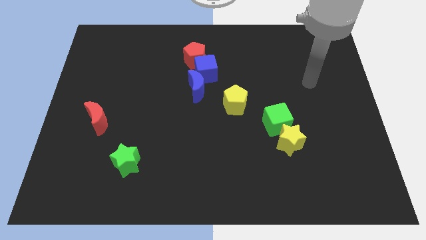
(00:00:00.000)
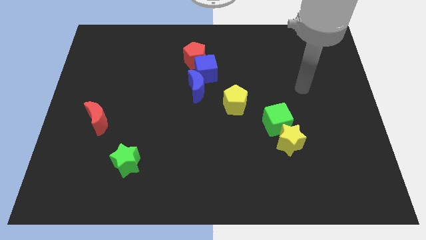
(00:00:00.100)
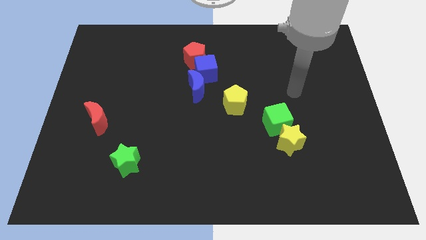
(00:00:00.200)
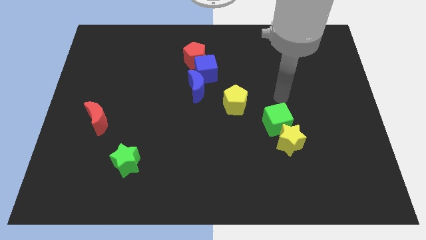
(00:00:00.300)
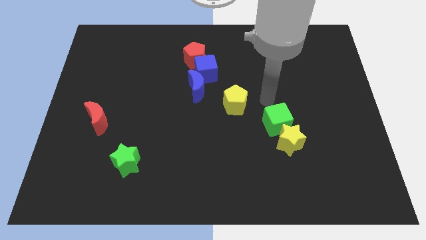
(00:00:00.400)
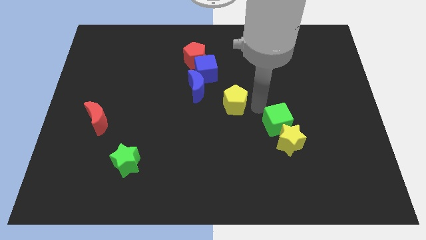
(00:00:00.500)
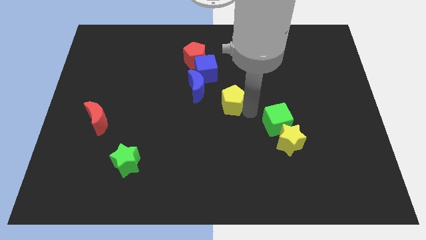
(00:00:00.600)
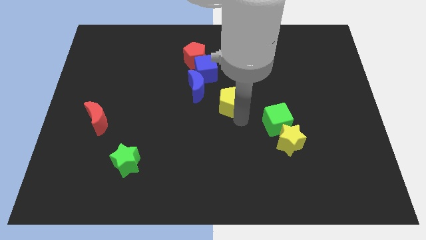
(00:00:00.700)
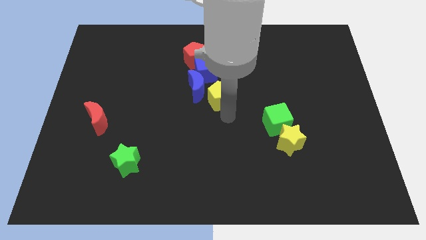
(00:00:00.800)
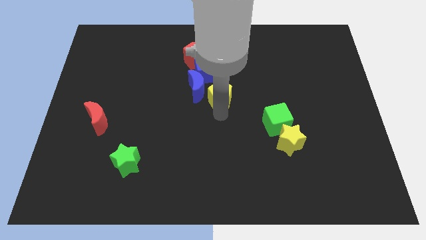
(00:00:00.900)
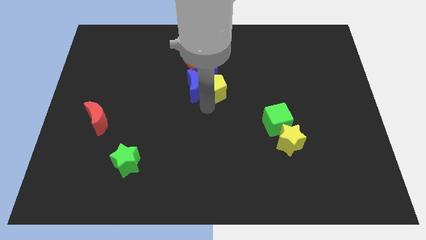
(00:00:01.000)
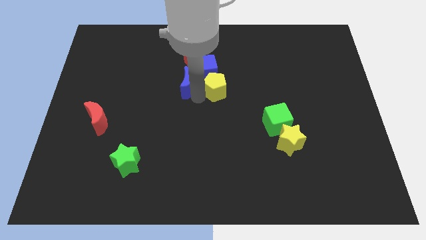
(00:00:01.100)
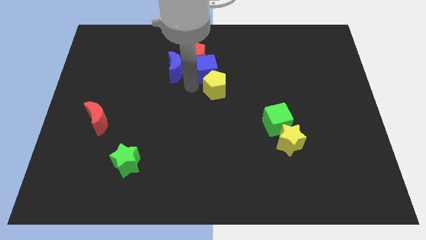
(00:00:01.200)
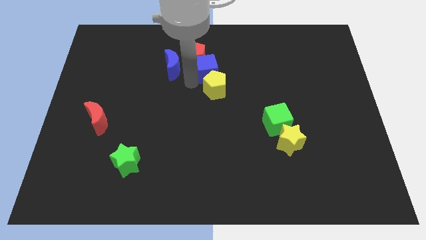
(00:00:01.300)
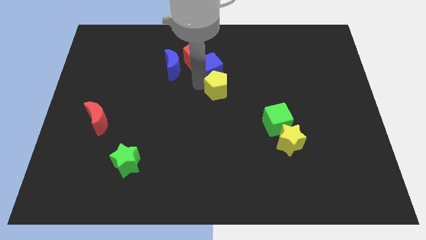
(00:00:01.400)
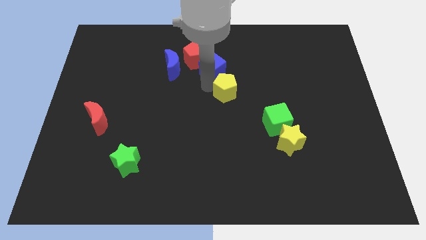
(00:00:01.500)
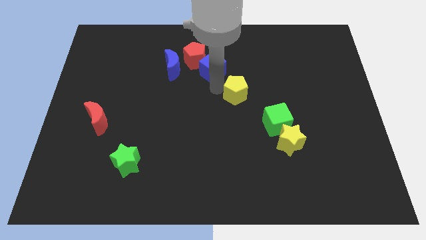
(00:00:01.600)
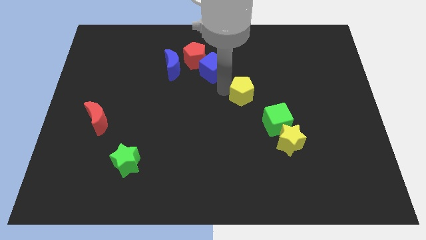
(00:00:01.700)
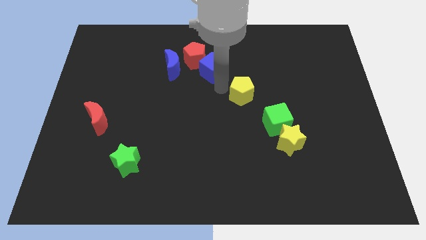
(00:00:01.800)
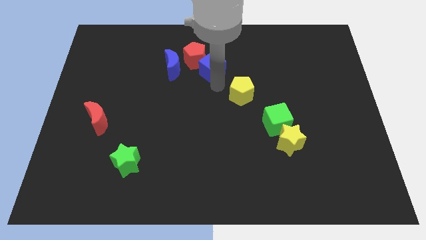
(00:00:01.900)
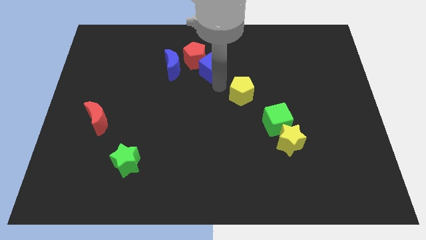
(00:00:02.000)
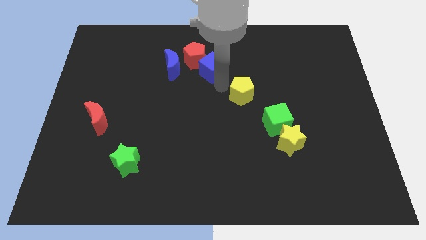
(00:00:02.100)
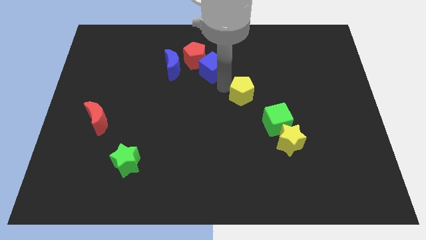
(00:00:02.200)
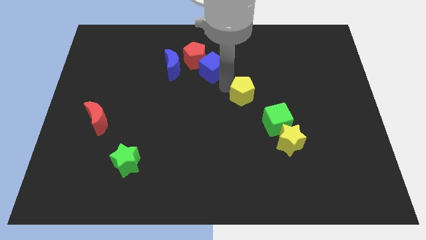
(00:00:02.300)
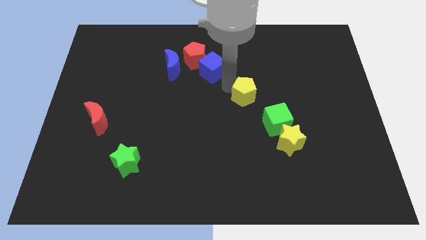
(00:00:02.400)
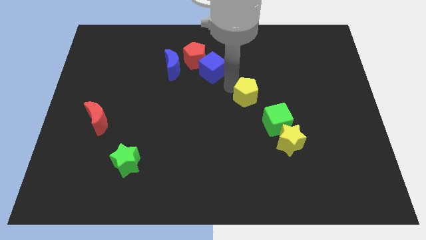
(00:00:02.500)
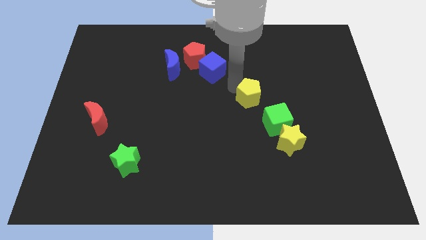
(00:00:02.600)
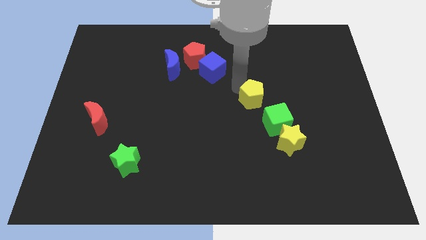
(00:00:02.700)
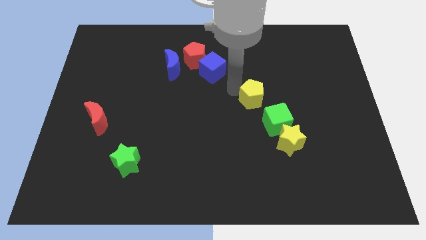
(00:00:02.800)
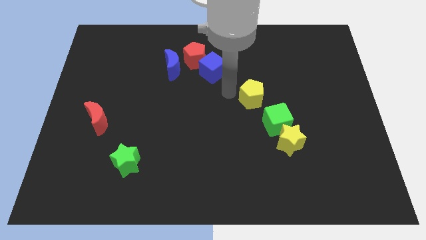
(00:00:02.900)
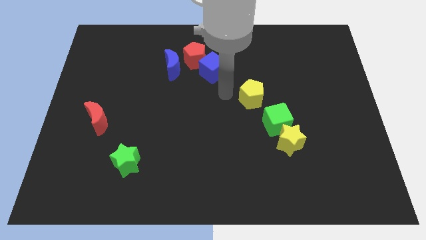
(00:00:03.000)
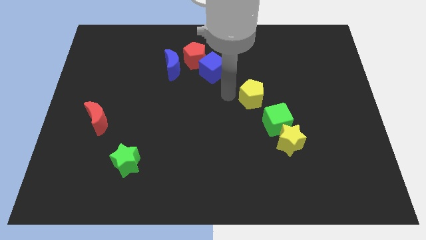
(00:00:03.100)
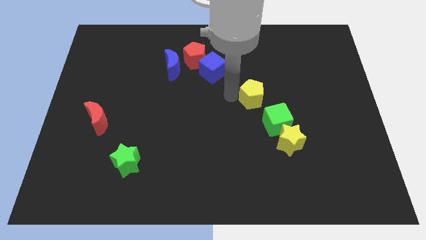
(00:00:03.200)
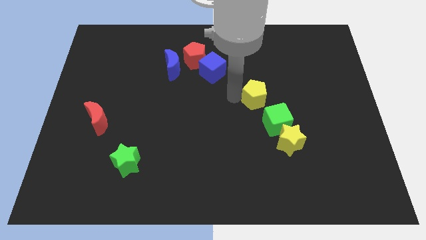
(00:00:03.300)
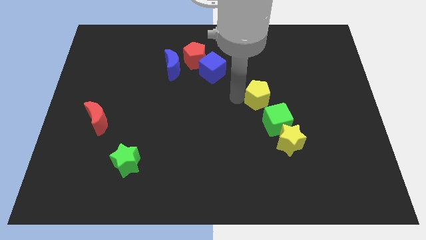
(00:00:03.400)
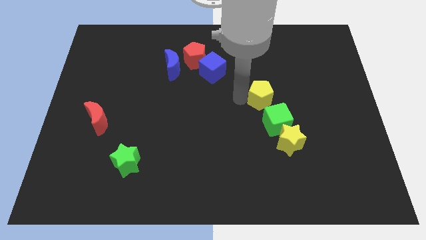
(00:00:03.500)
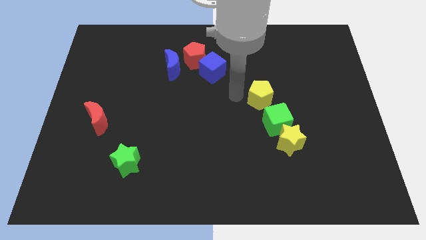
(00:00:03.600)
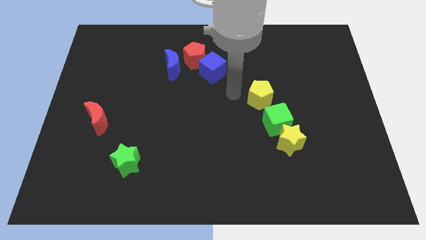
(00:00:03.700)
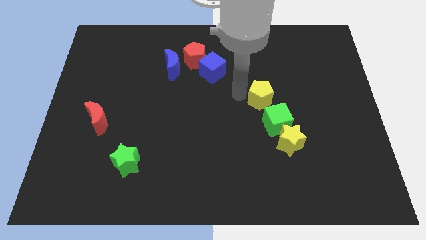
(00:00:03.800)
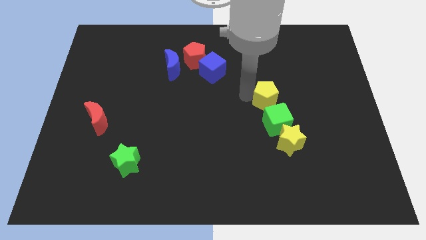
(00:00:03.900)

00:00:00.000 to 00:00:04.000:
push the yellow pentagon to the right somewhat

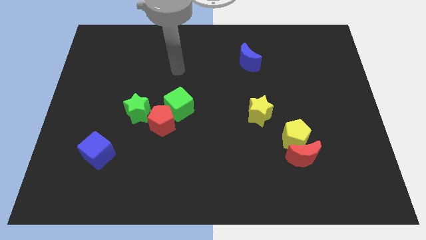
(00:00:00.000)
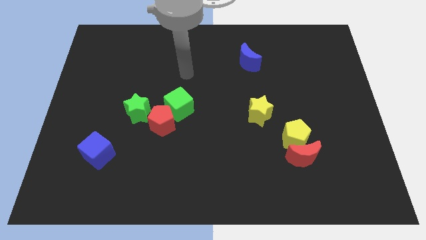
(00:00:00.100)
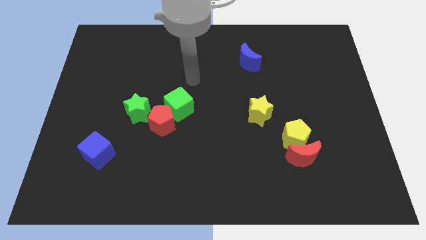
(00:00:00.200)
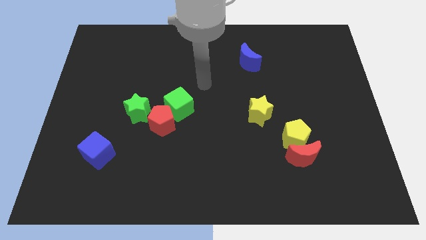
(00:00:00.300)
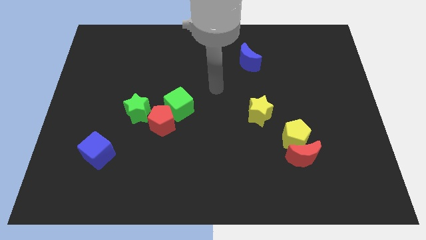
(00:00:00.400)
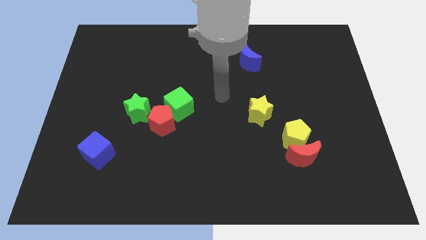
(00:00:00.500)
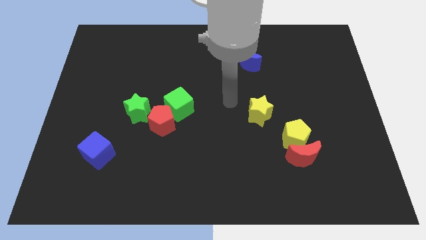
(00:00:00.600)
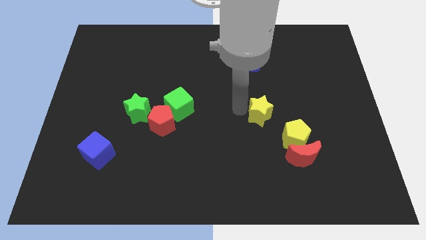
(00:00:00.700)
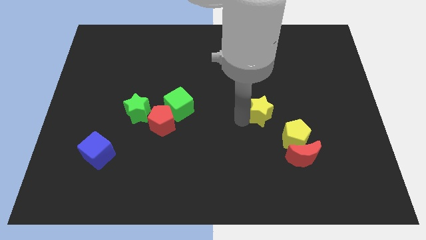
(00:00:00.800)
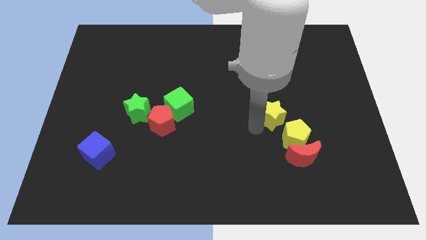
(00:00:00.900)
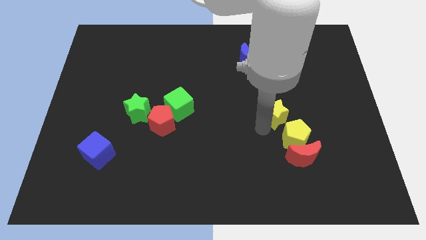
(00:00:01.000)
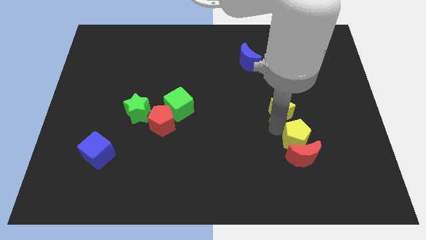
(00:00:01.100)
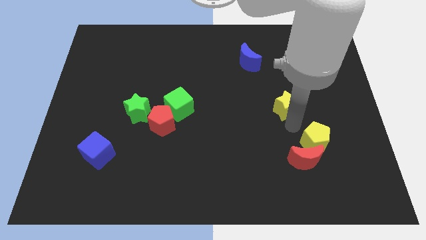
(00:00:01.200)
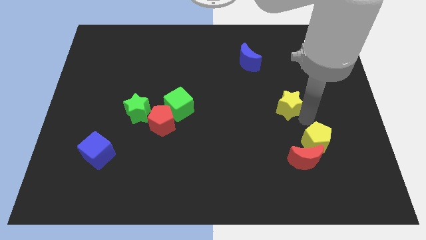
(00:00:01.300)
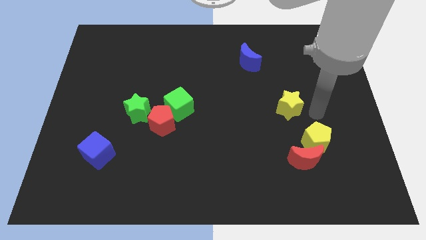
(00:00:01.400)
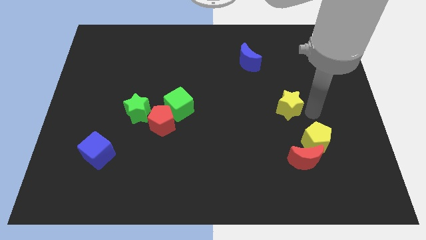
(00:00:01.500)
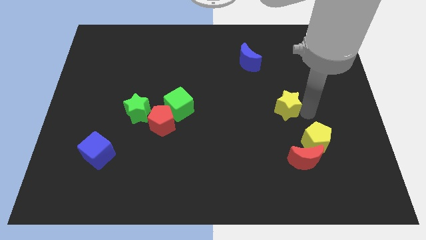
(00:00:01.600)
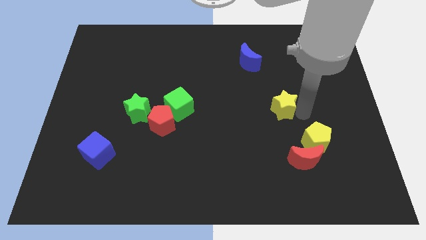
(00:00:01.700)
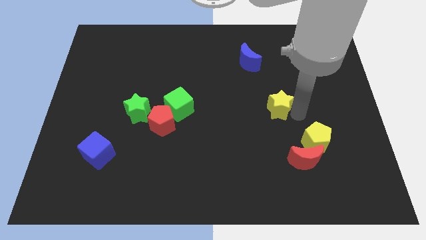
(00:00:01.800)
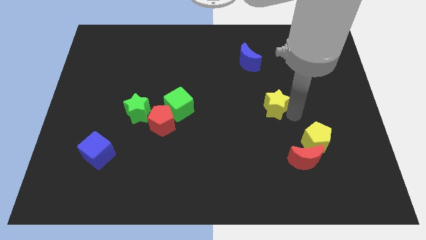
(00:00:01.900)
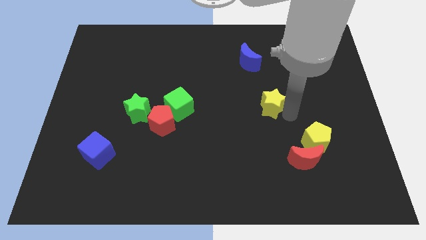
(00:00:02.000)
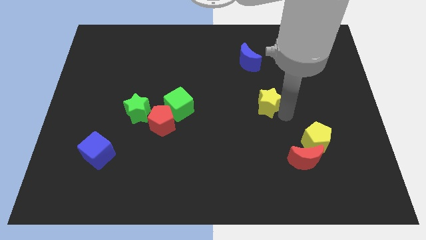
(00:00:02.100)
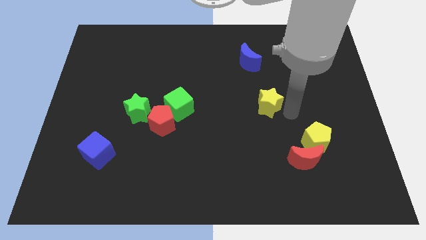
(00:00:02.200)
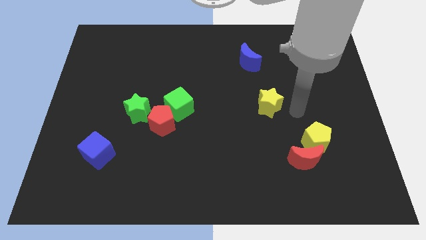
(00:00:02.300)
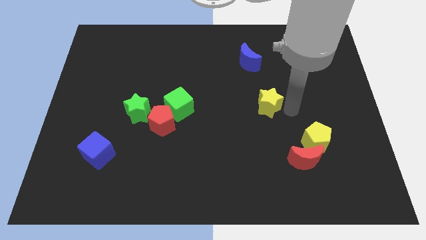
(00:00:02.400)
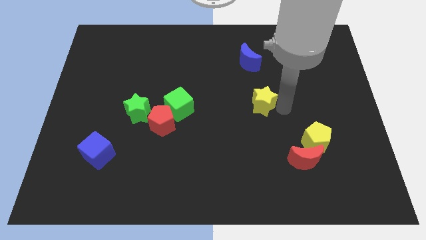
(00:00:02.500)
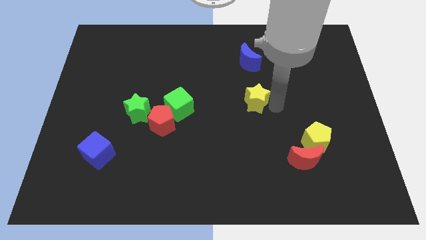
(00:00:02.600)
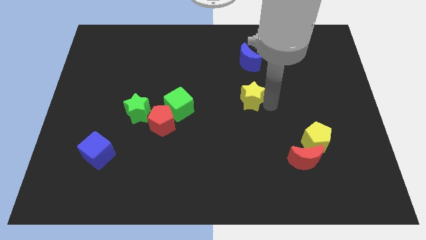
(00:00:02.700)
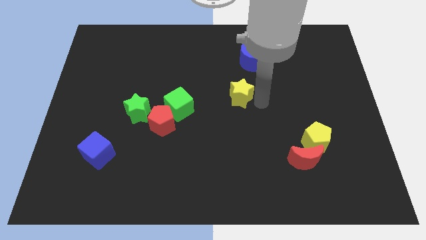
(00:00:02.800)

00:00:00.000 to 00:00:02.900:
slide the yellow star a little up and left diagonally

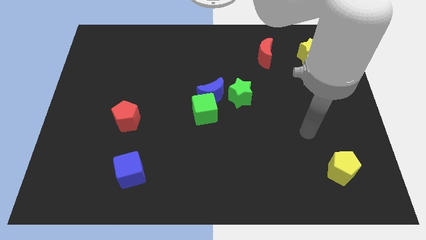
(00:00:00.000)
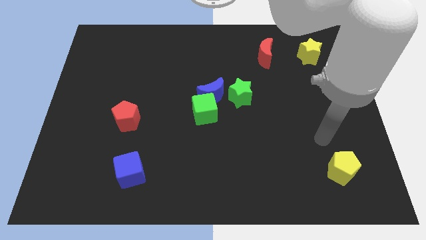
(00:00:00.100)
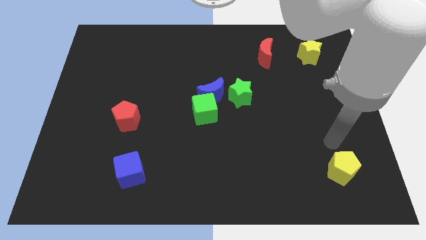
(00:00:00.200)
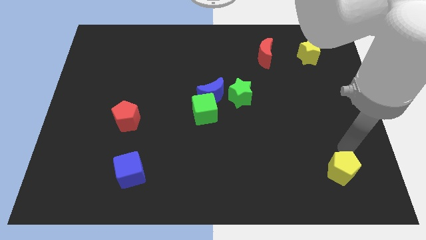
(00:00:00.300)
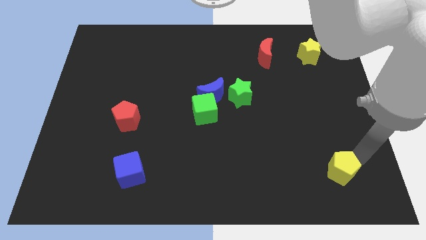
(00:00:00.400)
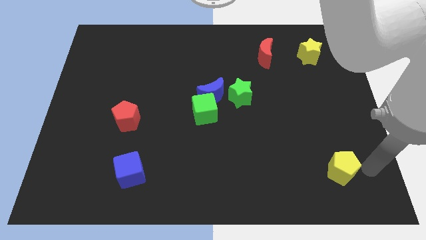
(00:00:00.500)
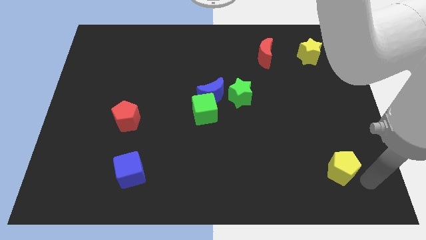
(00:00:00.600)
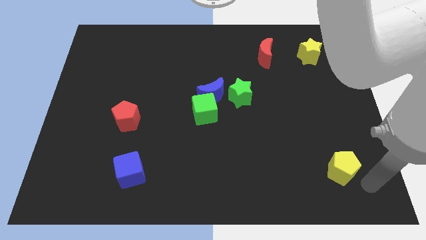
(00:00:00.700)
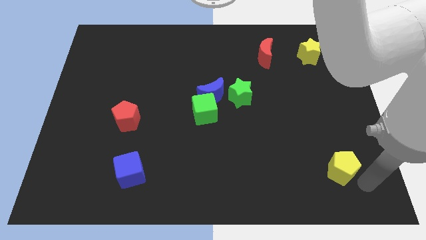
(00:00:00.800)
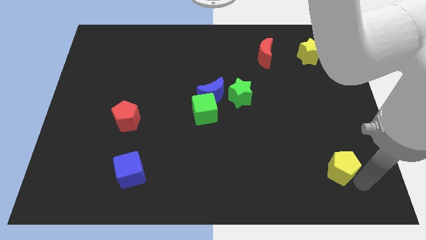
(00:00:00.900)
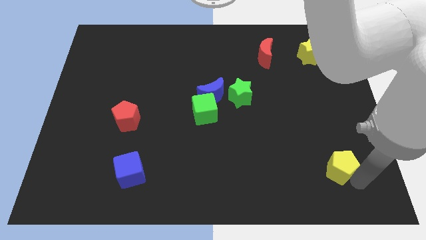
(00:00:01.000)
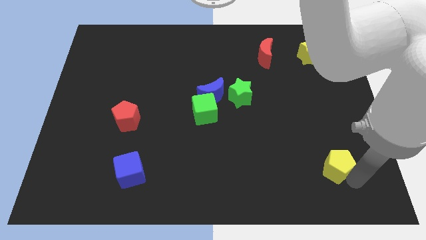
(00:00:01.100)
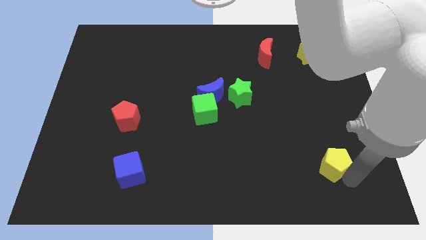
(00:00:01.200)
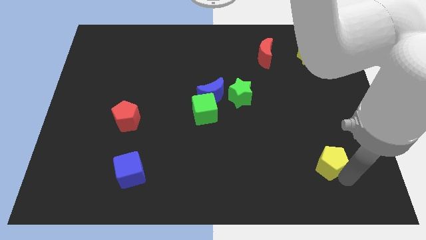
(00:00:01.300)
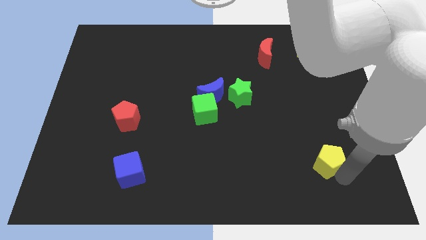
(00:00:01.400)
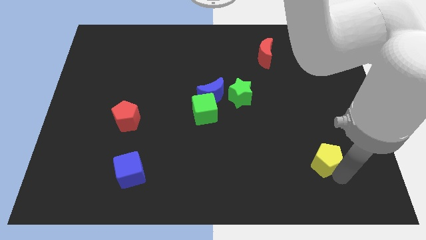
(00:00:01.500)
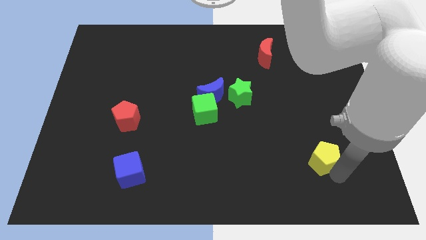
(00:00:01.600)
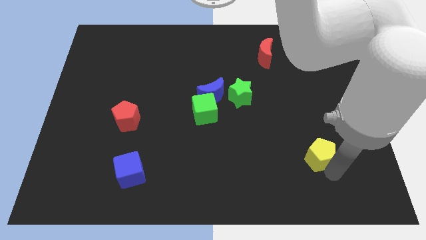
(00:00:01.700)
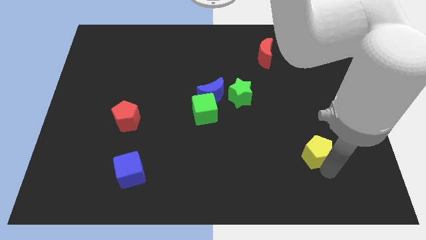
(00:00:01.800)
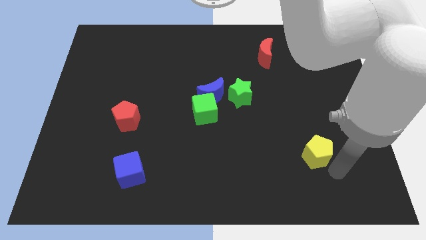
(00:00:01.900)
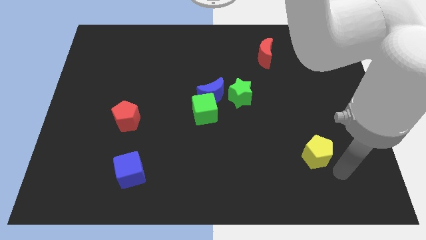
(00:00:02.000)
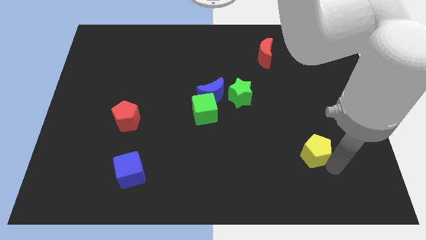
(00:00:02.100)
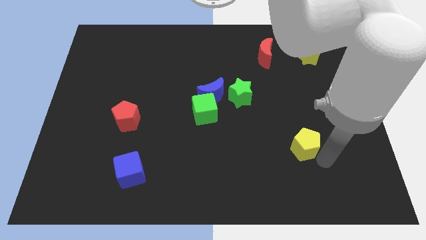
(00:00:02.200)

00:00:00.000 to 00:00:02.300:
slightly move the yellow pentagon upwards and then left
